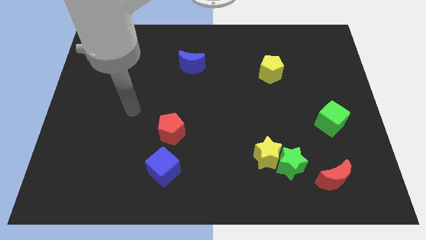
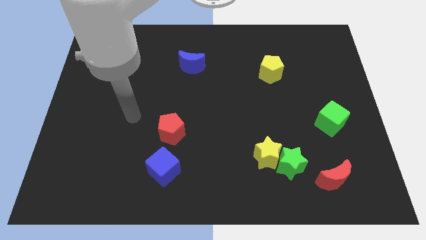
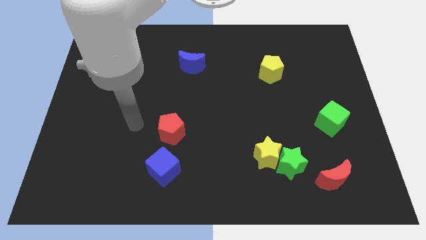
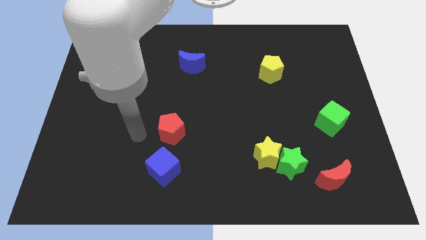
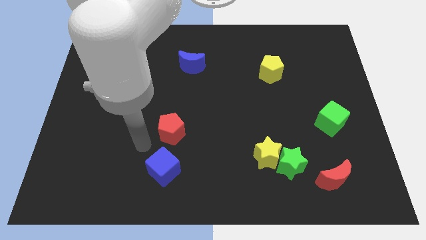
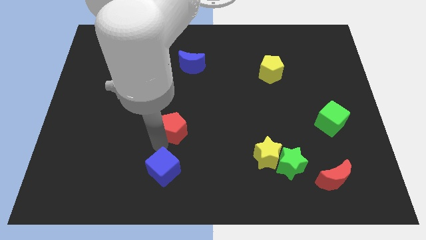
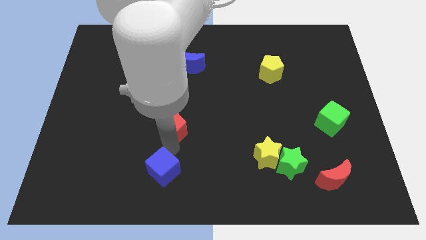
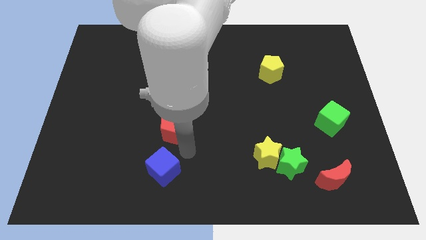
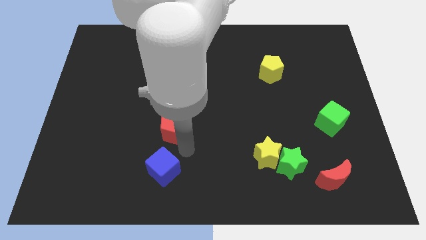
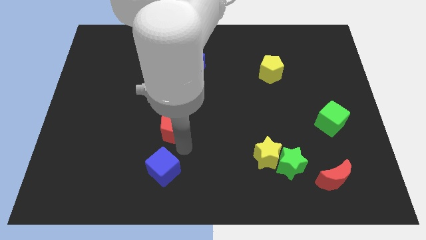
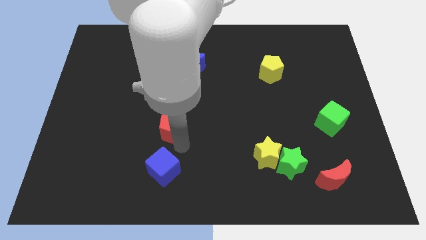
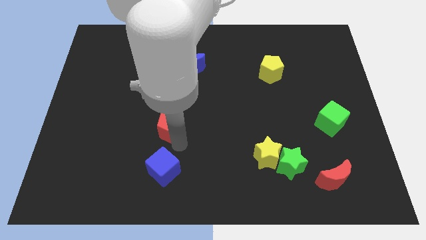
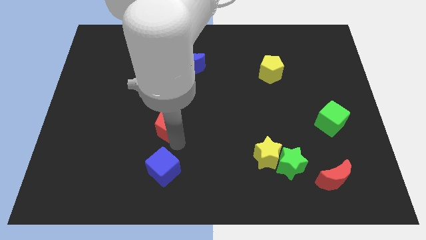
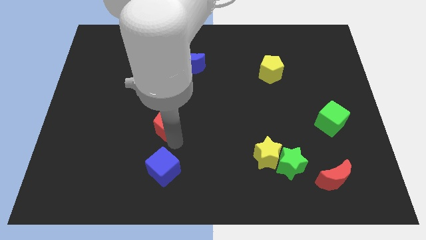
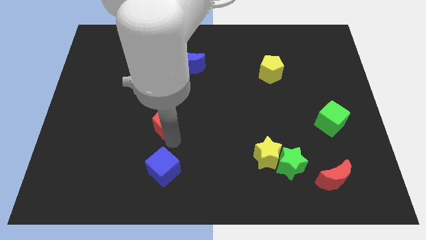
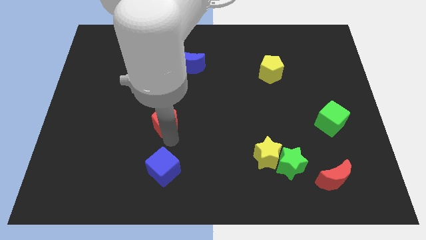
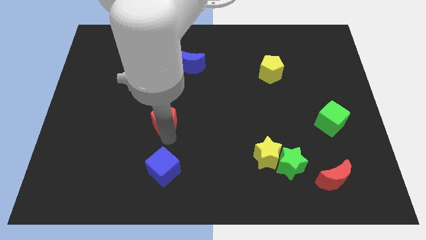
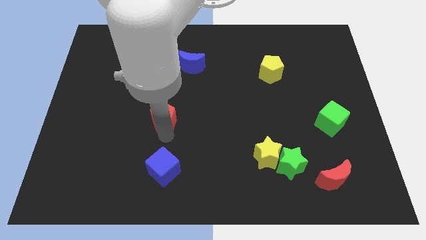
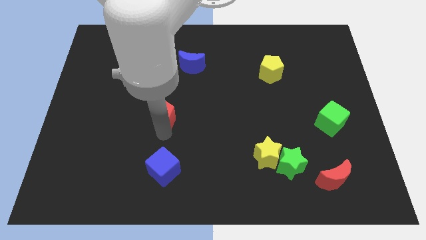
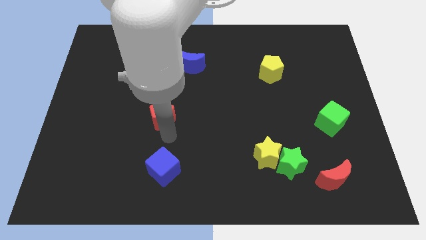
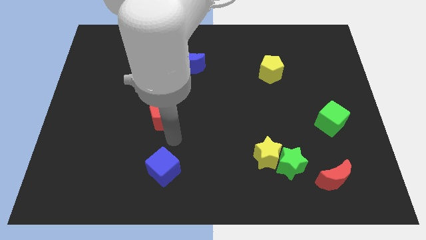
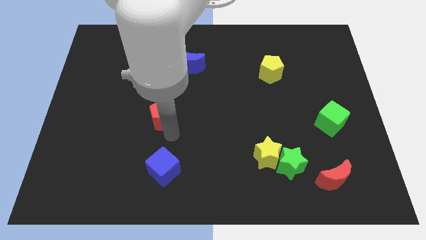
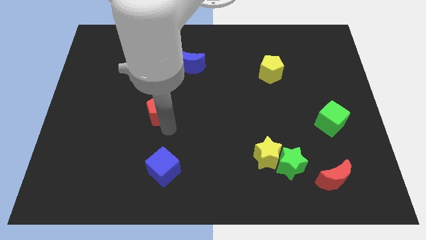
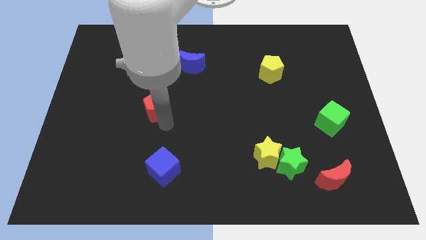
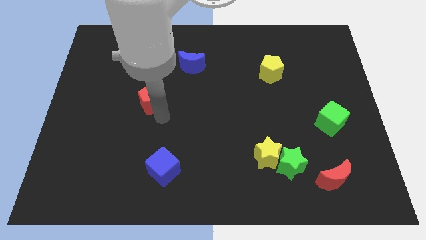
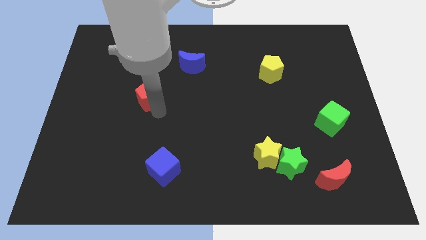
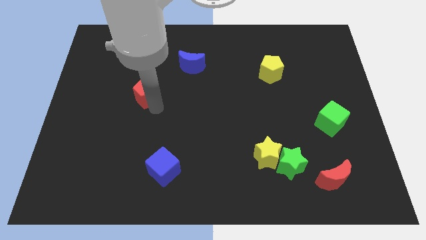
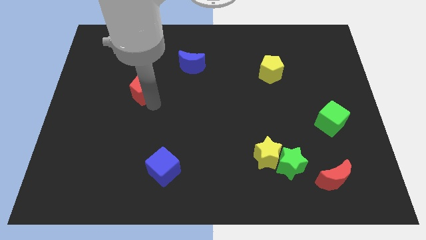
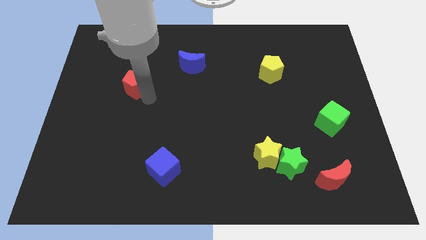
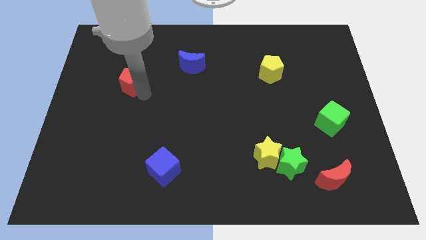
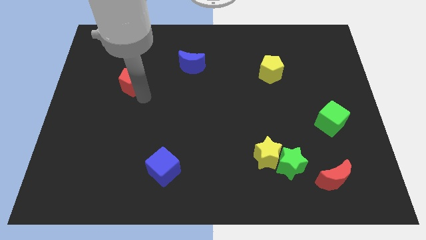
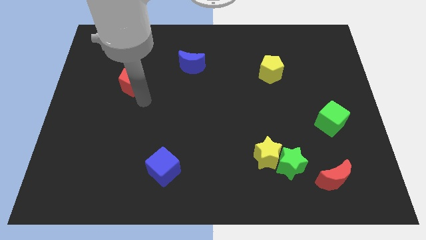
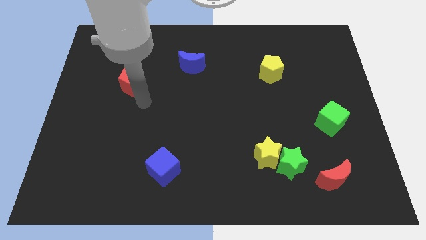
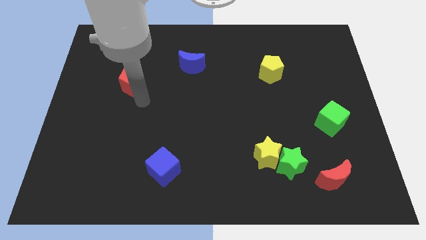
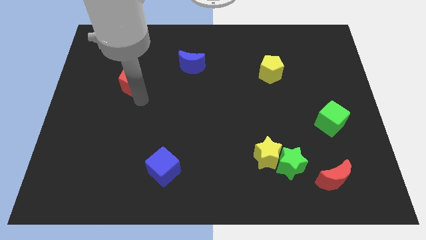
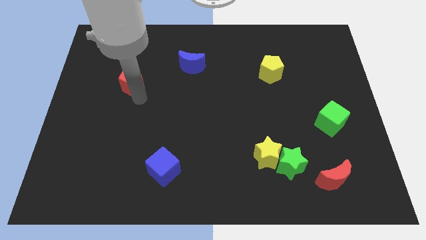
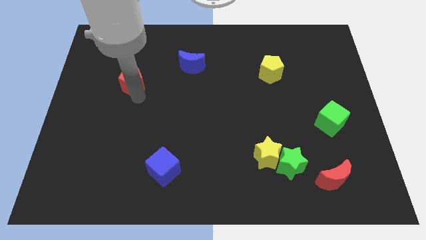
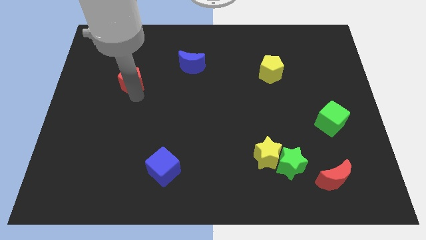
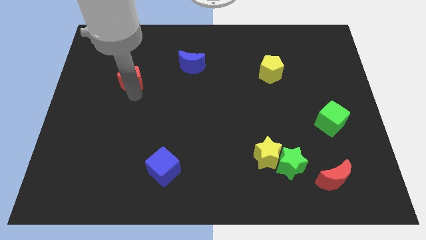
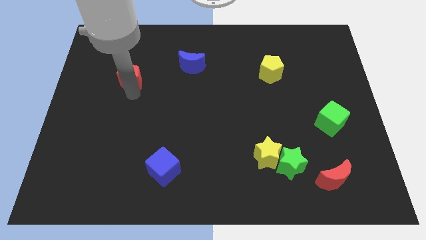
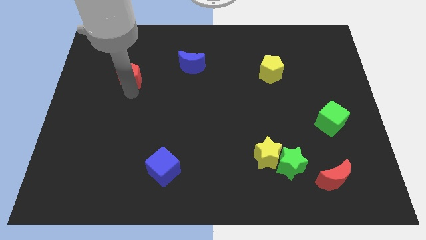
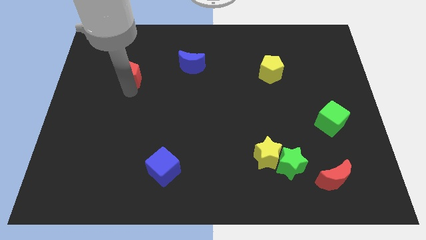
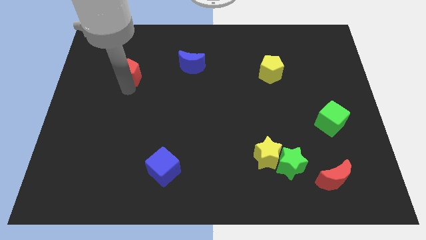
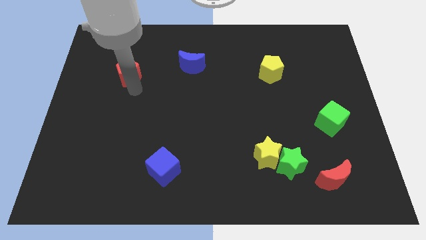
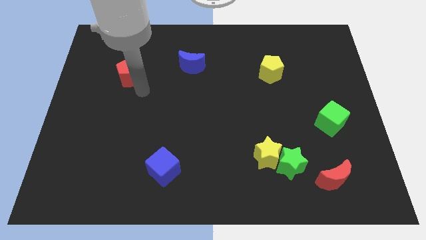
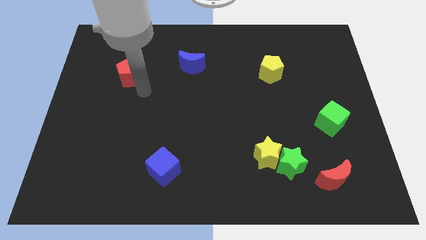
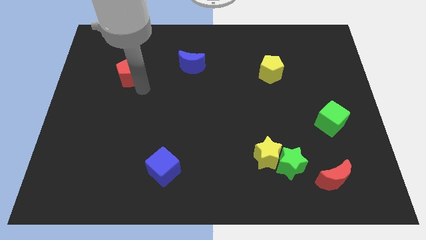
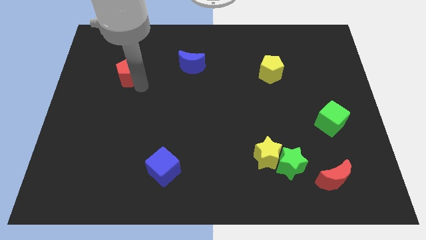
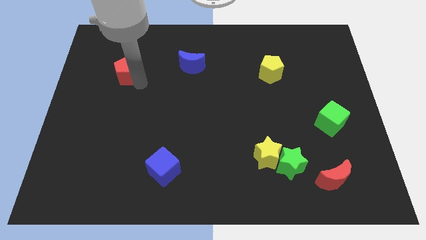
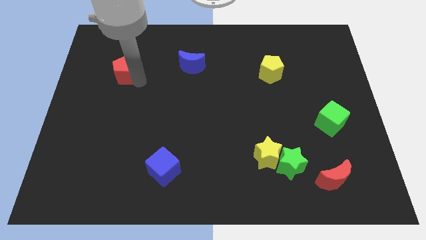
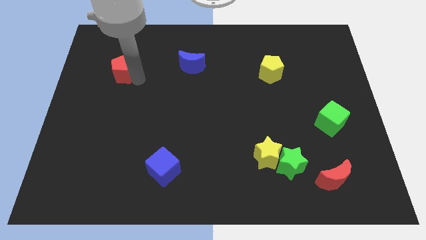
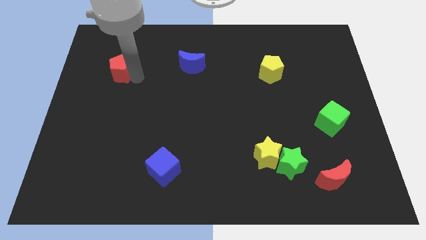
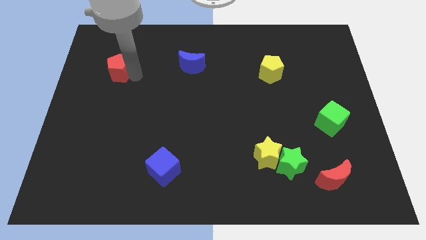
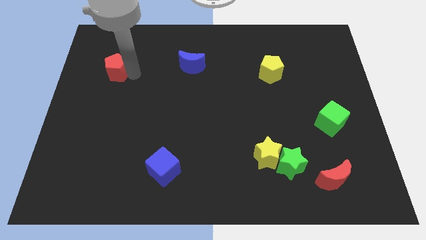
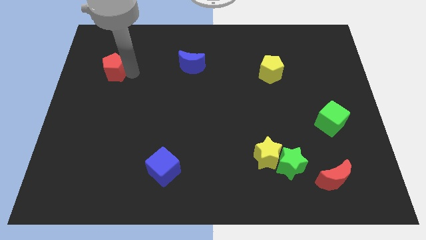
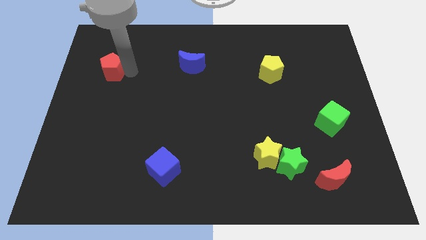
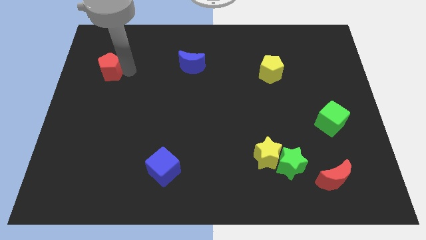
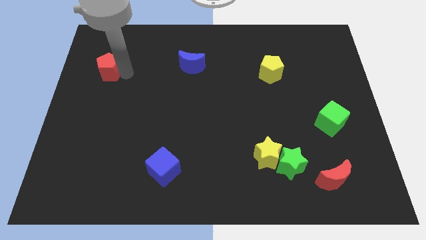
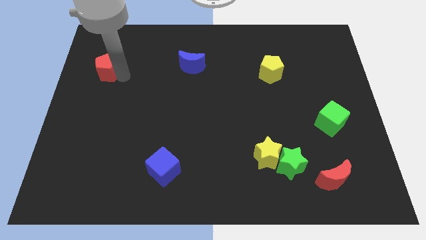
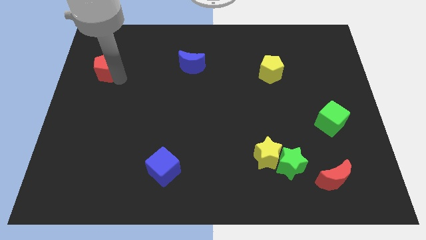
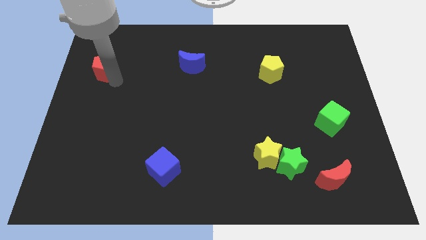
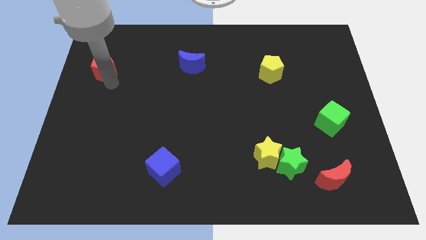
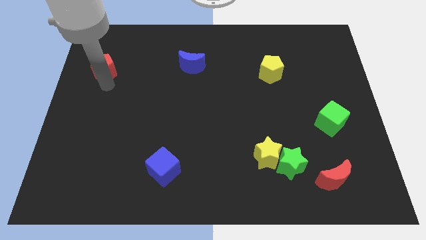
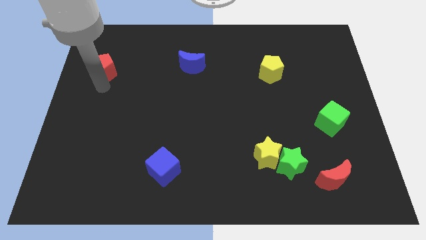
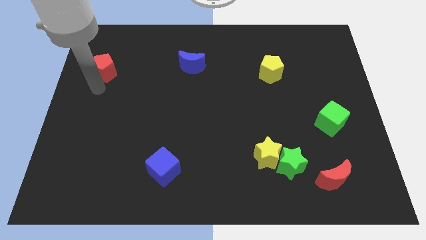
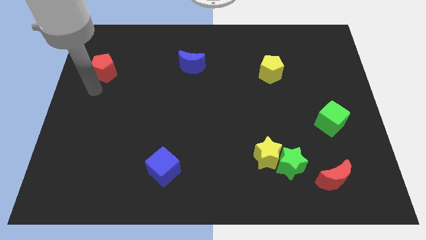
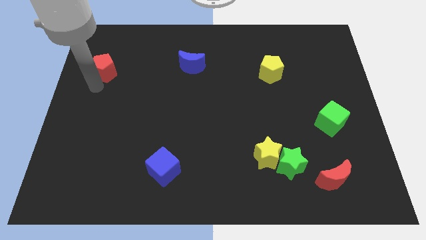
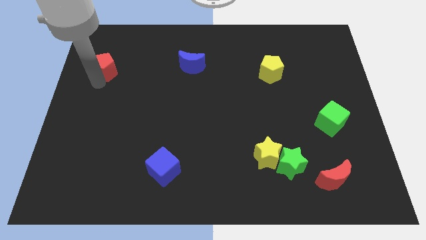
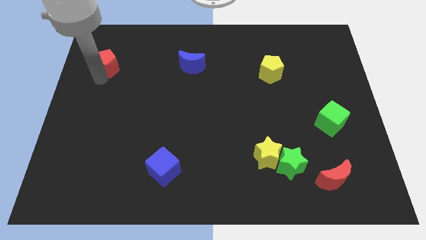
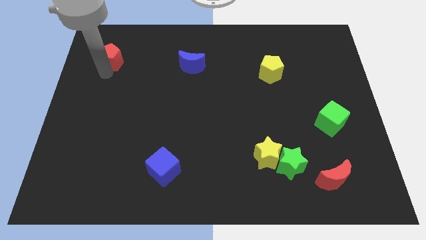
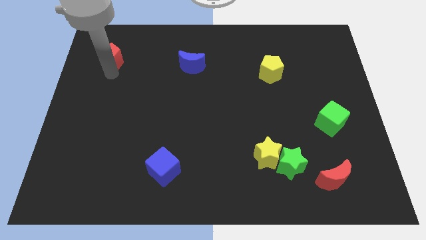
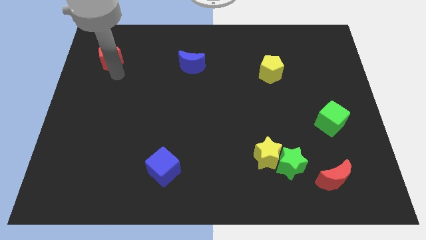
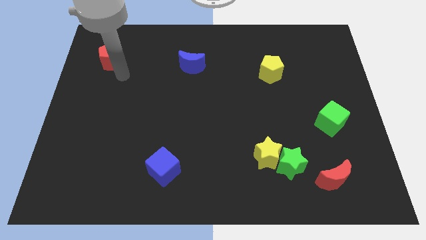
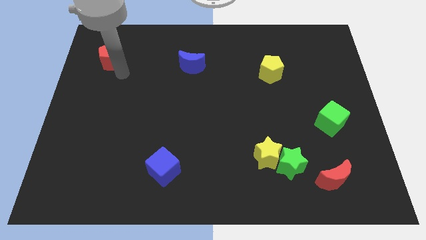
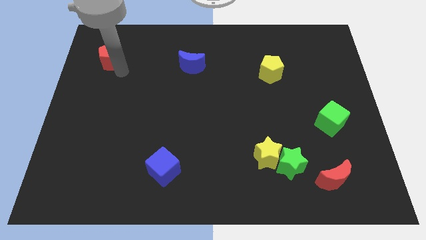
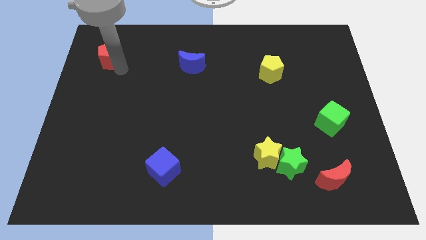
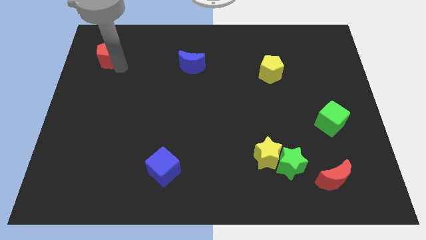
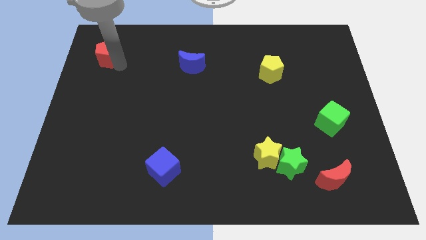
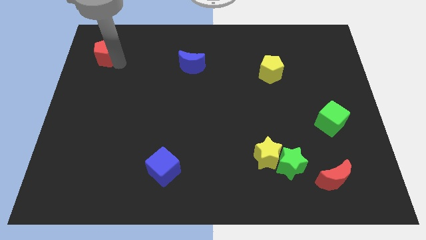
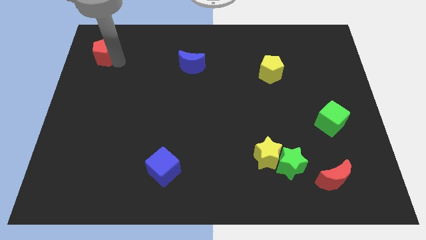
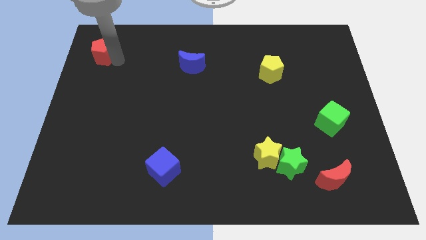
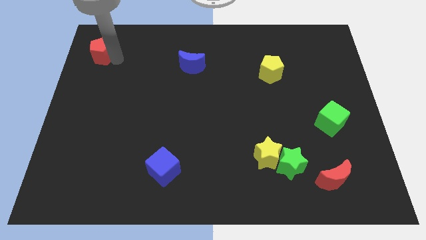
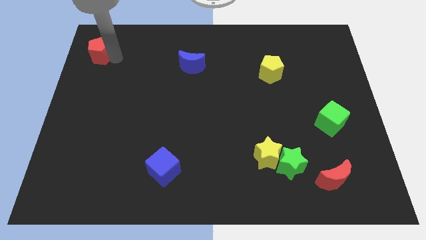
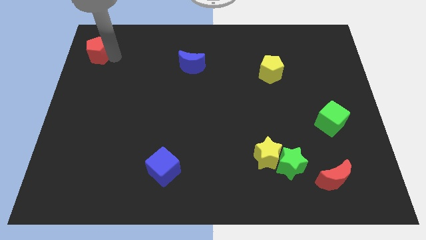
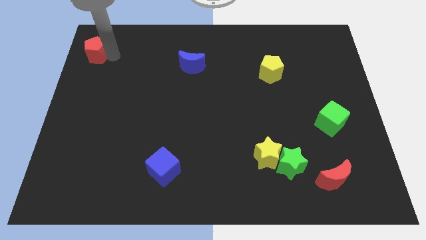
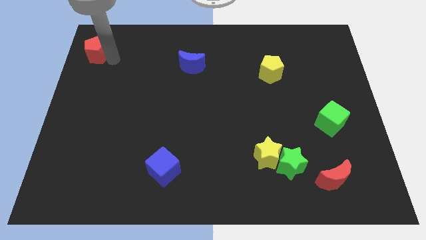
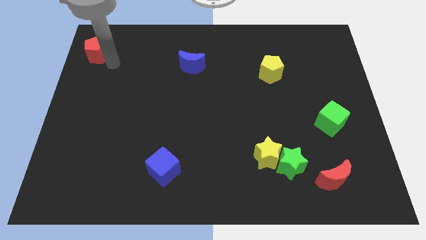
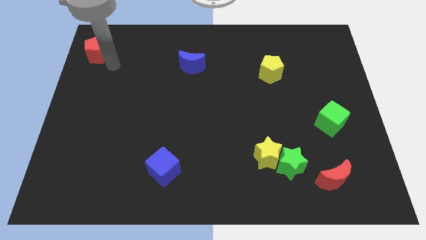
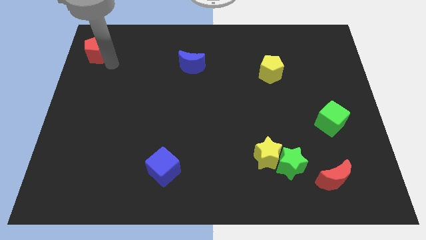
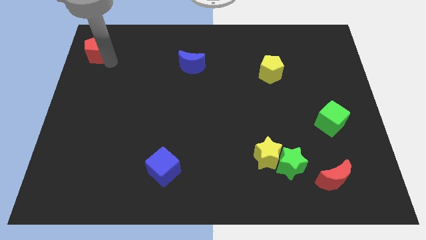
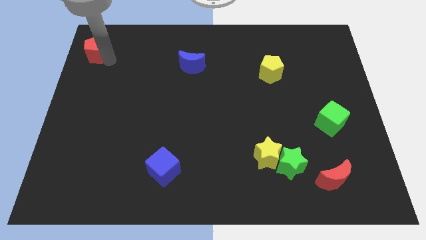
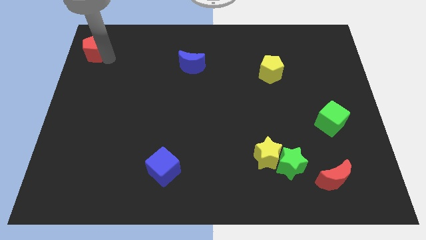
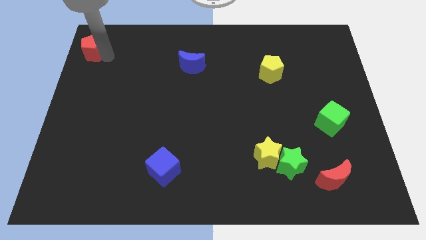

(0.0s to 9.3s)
slide the red pentagon to the top left
